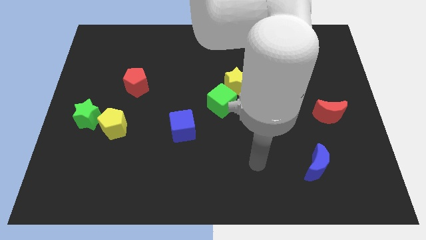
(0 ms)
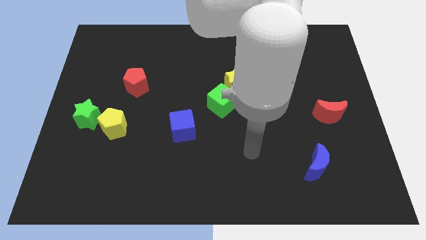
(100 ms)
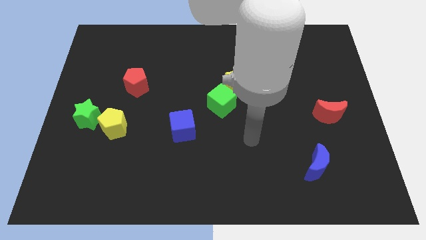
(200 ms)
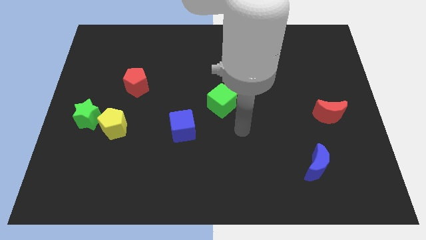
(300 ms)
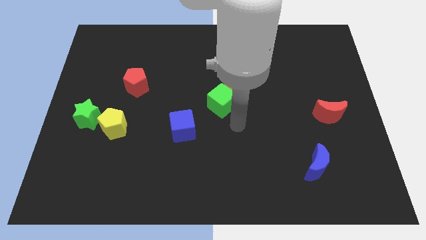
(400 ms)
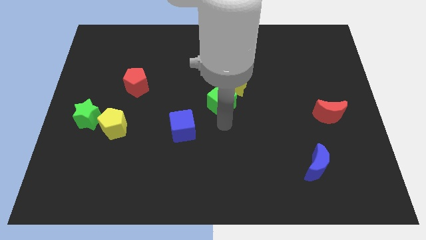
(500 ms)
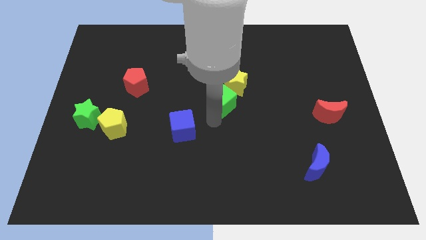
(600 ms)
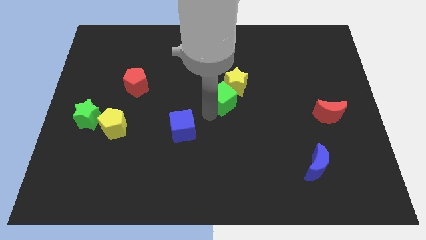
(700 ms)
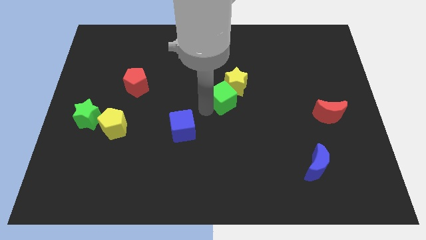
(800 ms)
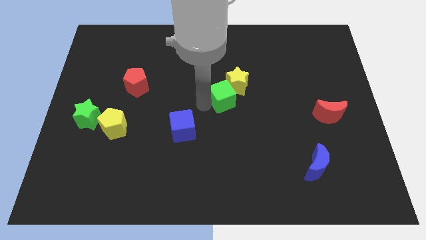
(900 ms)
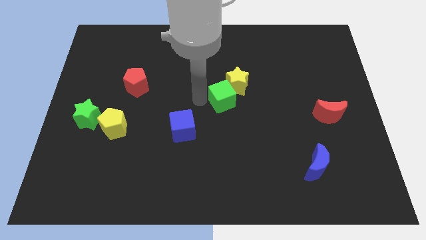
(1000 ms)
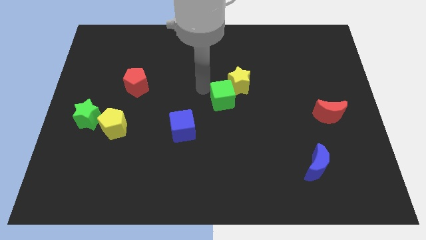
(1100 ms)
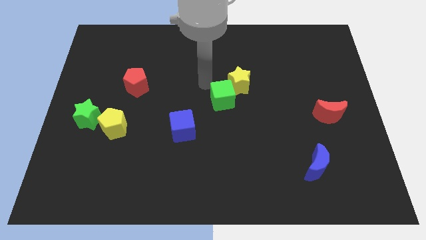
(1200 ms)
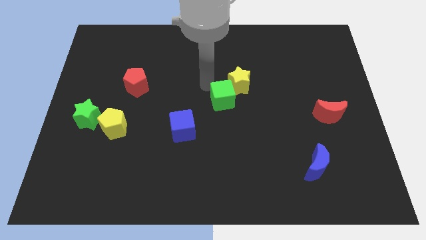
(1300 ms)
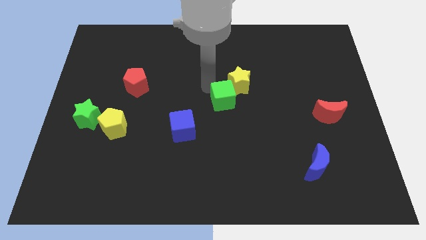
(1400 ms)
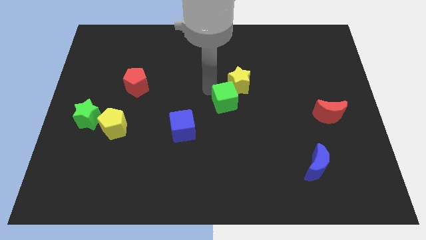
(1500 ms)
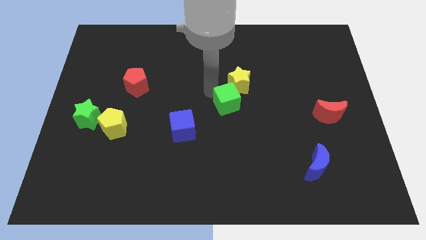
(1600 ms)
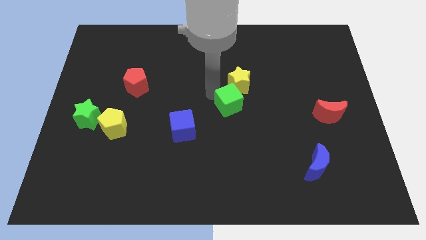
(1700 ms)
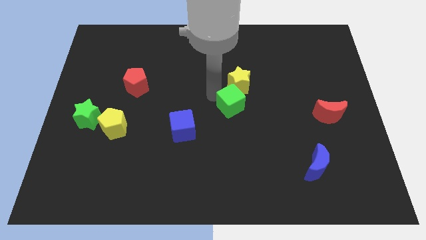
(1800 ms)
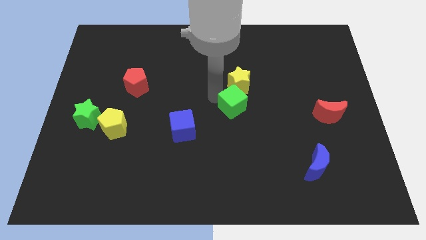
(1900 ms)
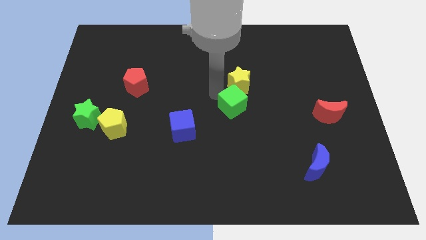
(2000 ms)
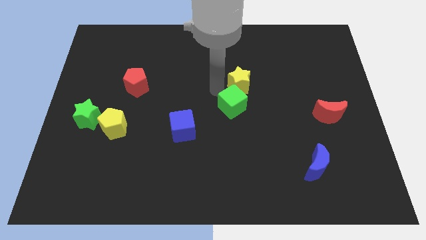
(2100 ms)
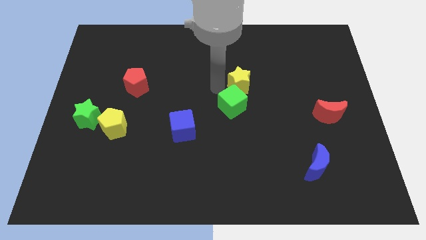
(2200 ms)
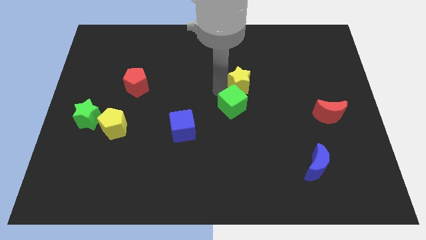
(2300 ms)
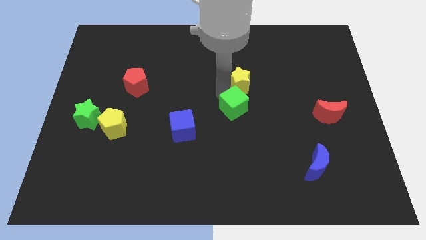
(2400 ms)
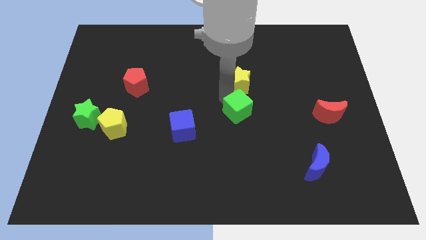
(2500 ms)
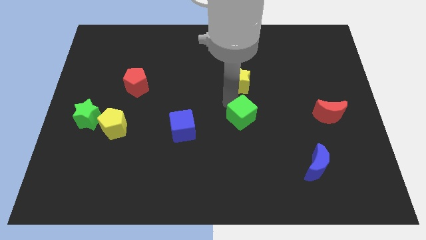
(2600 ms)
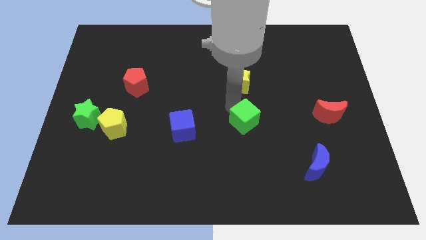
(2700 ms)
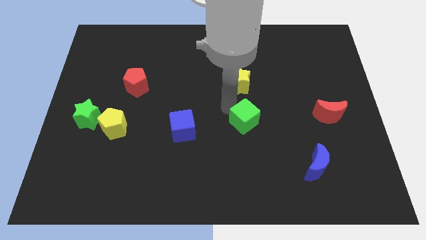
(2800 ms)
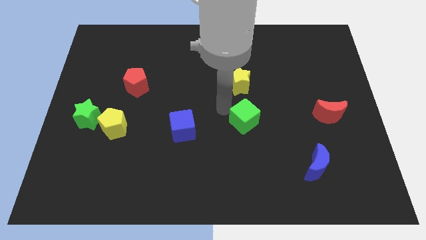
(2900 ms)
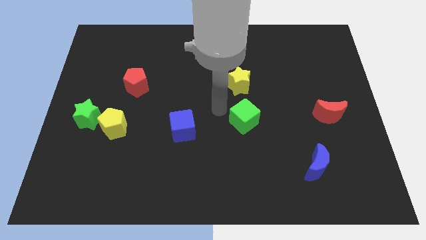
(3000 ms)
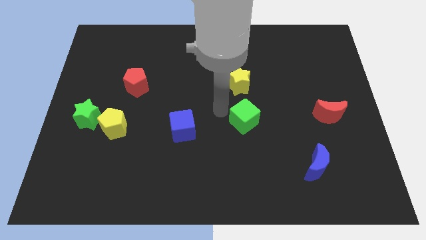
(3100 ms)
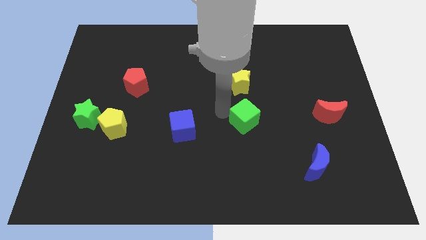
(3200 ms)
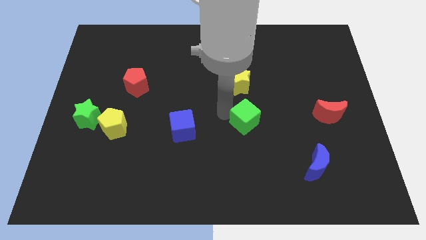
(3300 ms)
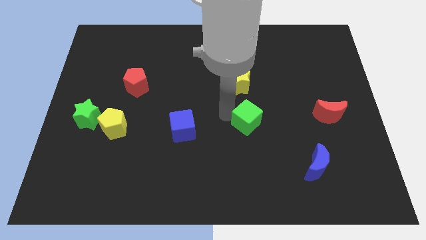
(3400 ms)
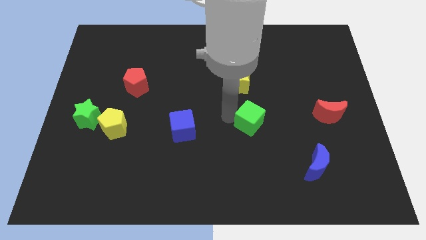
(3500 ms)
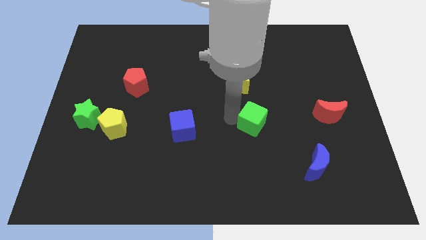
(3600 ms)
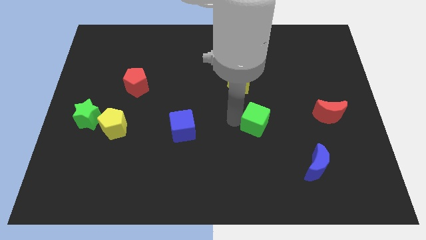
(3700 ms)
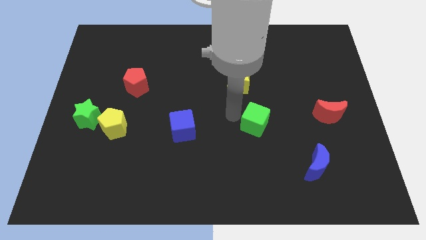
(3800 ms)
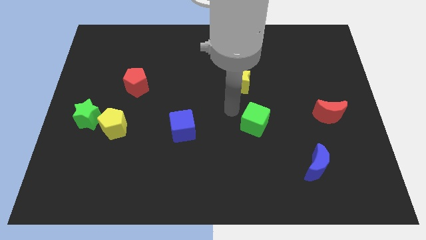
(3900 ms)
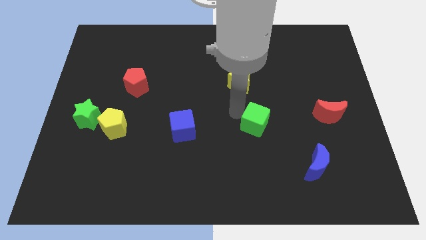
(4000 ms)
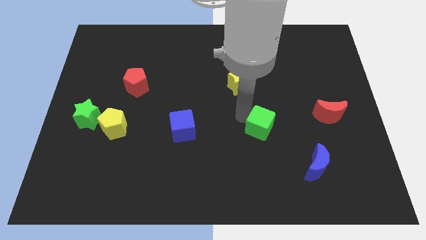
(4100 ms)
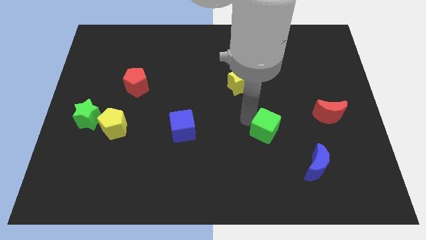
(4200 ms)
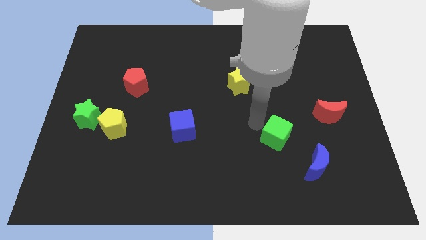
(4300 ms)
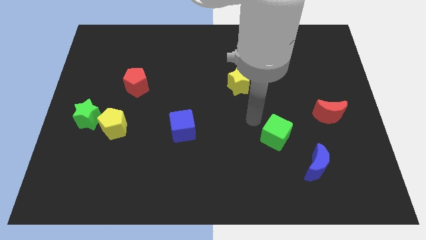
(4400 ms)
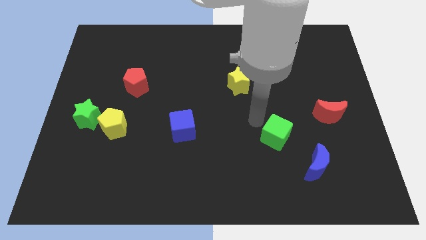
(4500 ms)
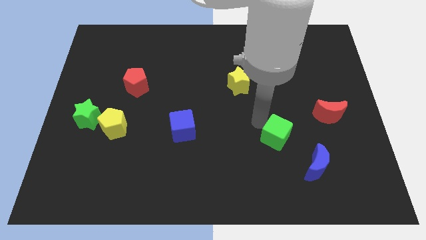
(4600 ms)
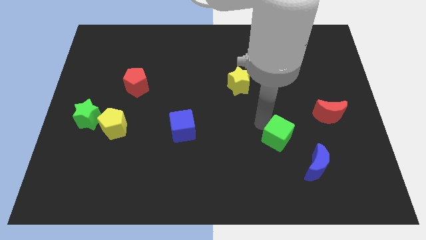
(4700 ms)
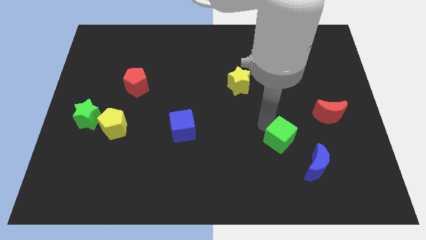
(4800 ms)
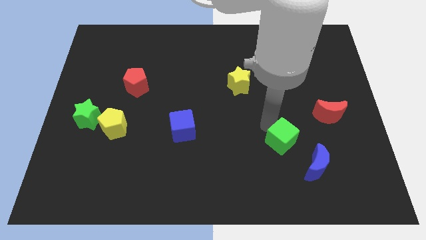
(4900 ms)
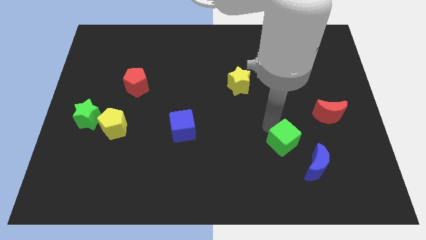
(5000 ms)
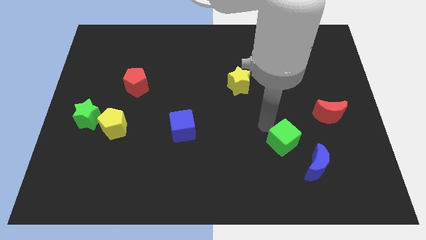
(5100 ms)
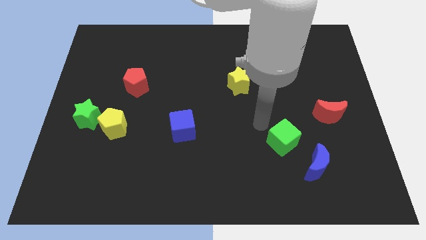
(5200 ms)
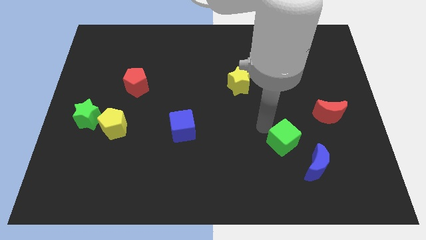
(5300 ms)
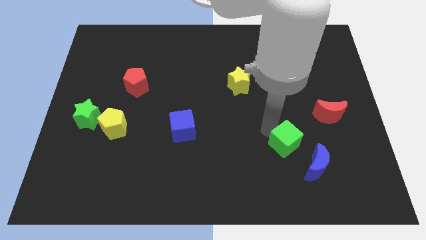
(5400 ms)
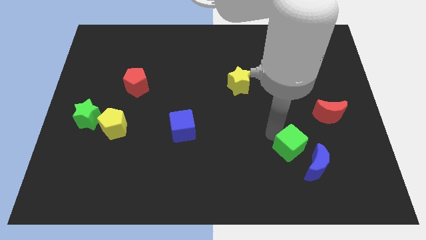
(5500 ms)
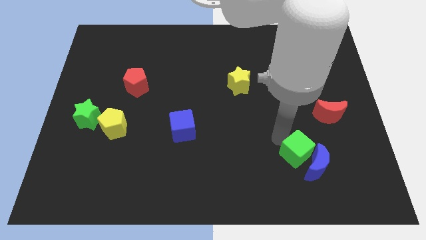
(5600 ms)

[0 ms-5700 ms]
put the green cube next to the blue moon

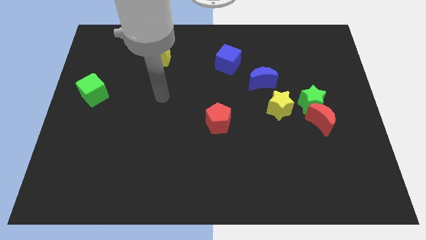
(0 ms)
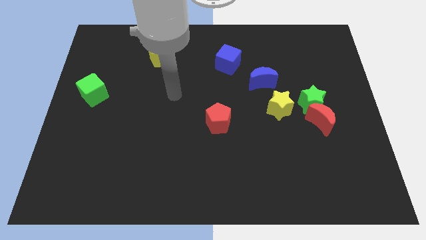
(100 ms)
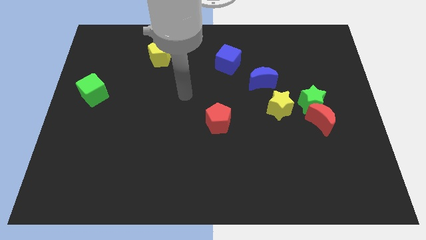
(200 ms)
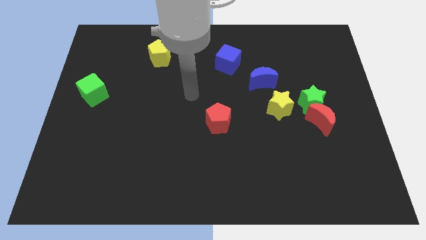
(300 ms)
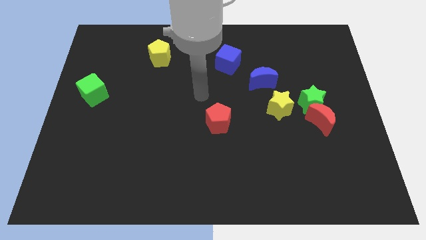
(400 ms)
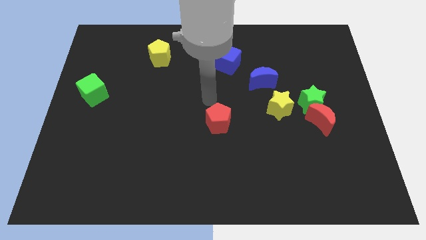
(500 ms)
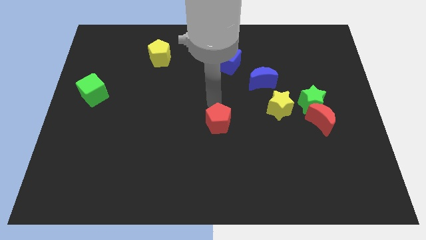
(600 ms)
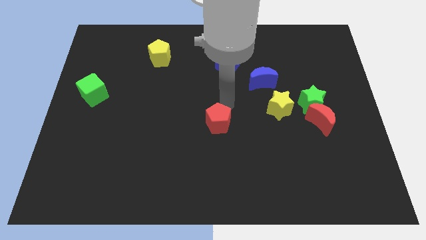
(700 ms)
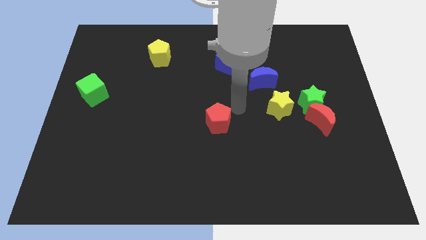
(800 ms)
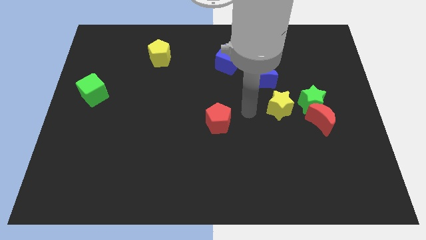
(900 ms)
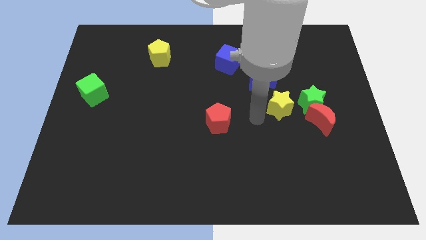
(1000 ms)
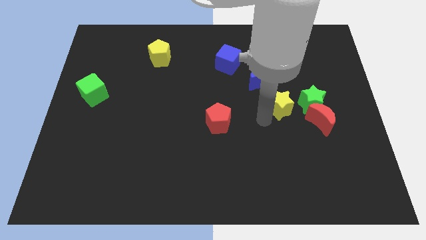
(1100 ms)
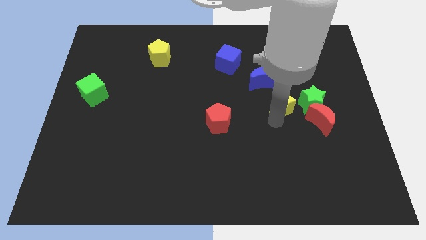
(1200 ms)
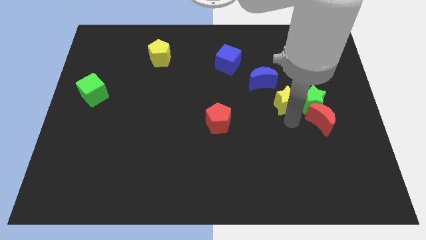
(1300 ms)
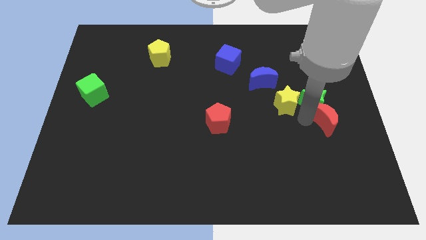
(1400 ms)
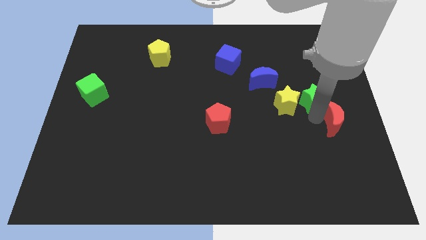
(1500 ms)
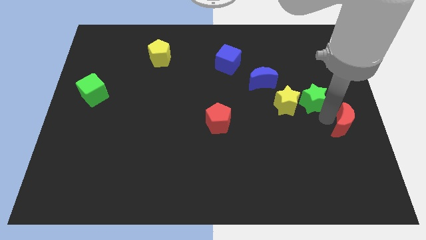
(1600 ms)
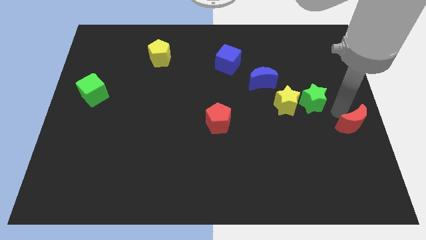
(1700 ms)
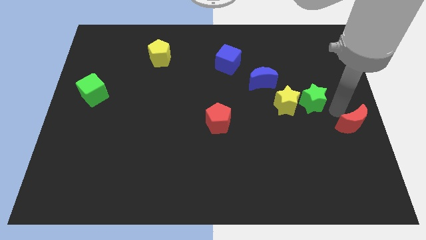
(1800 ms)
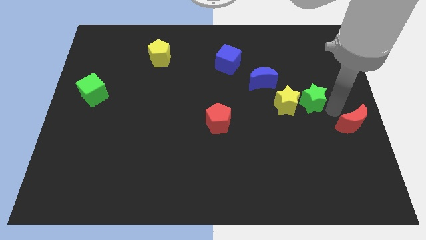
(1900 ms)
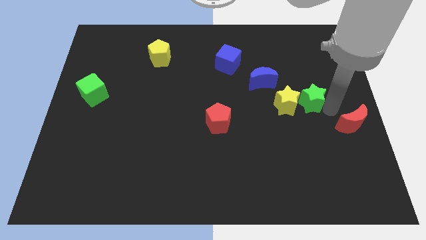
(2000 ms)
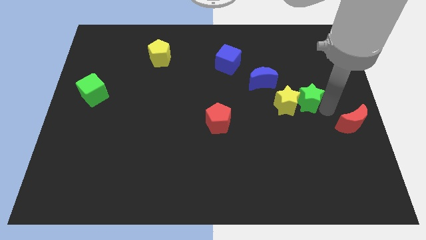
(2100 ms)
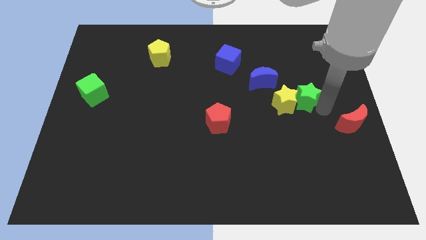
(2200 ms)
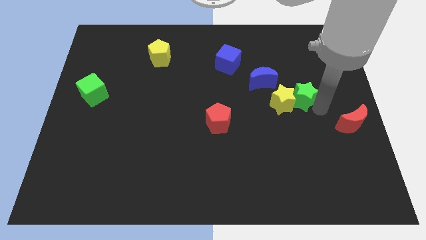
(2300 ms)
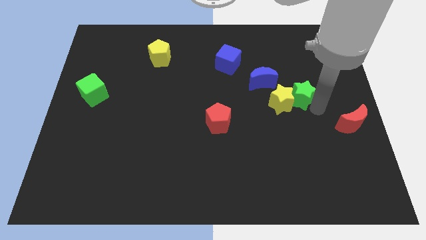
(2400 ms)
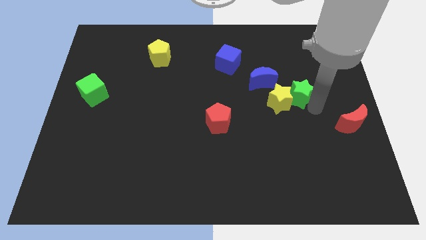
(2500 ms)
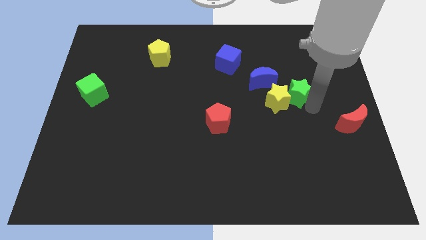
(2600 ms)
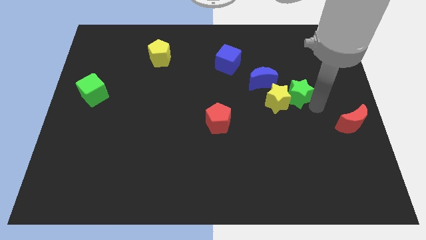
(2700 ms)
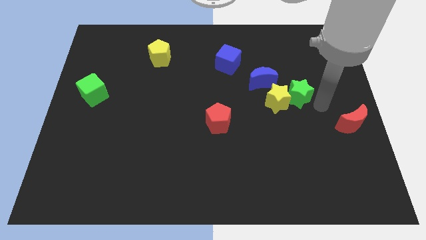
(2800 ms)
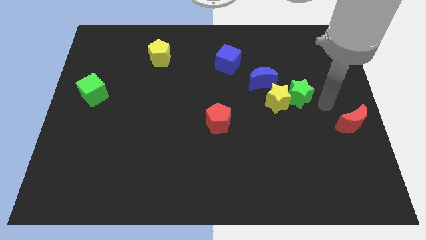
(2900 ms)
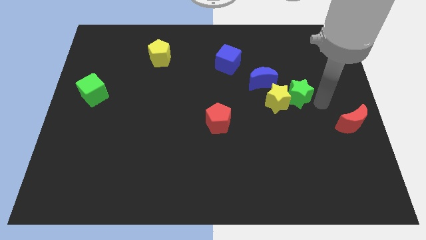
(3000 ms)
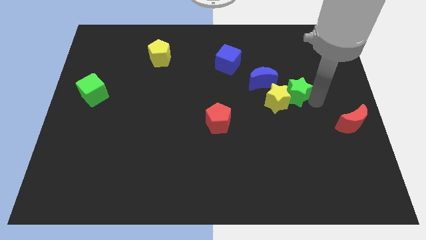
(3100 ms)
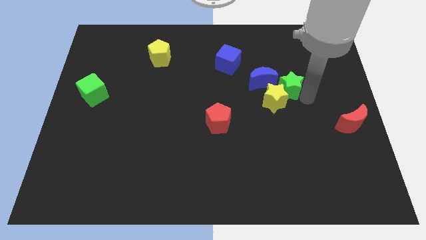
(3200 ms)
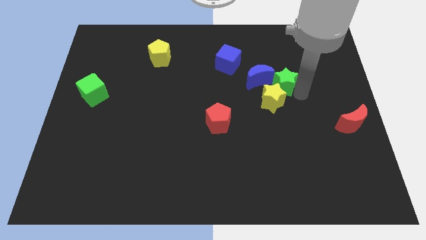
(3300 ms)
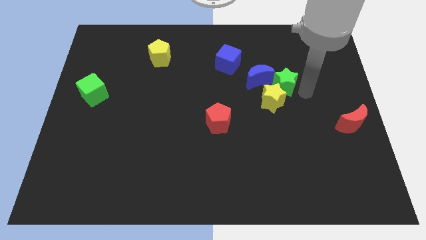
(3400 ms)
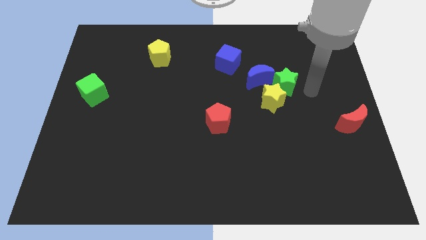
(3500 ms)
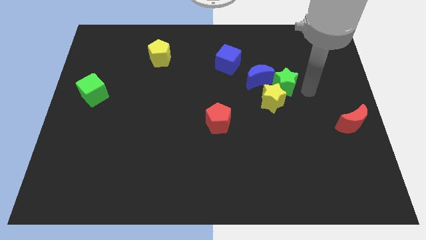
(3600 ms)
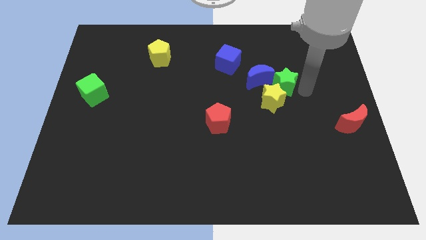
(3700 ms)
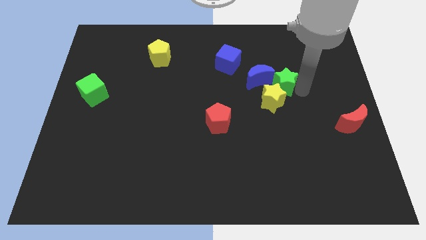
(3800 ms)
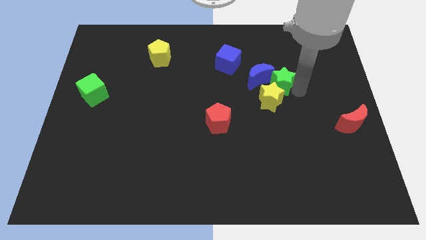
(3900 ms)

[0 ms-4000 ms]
push the green star to the blue moon
